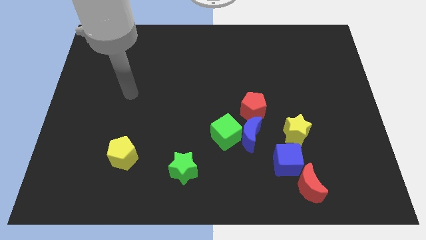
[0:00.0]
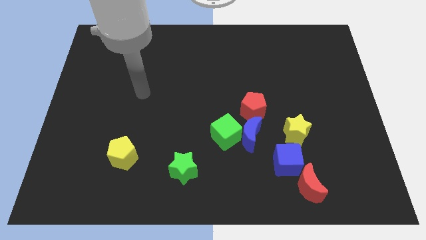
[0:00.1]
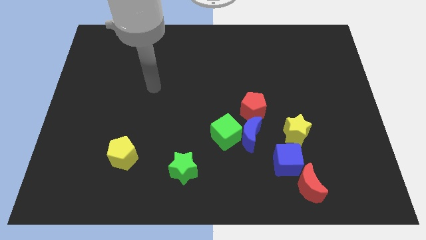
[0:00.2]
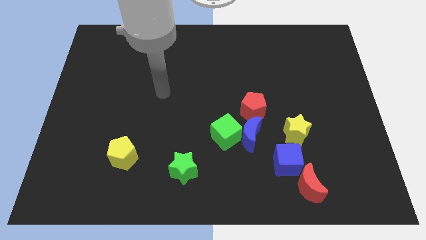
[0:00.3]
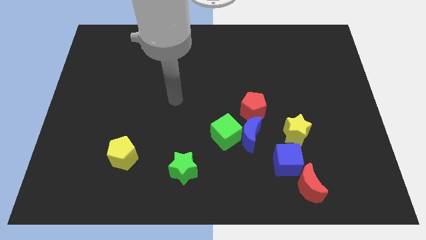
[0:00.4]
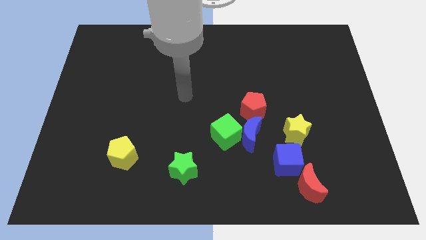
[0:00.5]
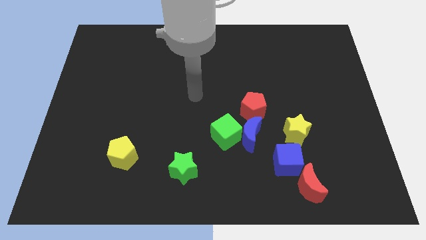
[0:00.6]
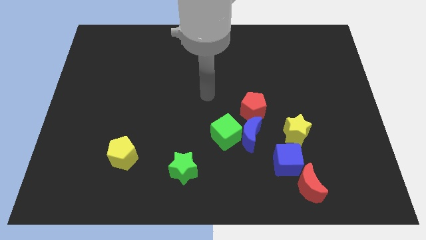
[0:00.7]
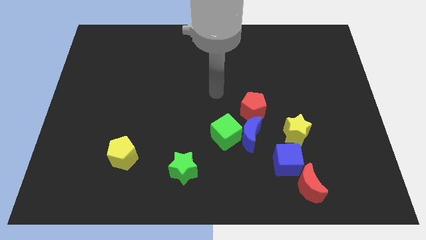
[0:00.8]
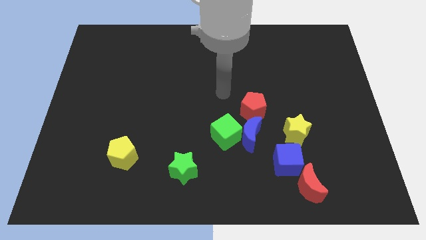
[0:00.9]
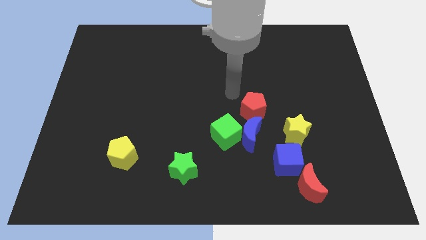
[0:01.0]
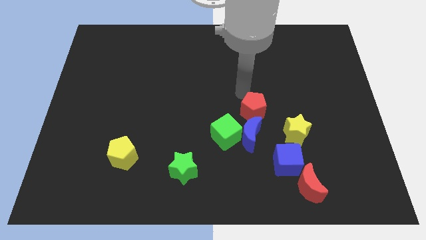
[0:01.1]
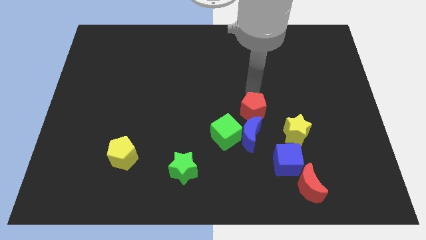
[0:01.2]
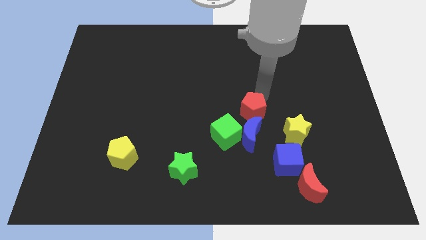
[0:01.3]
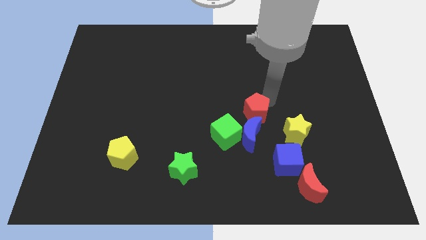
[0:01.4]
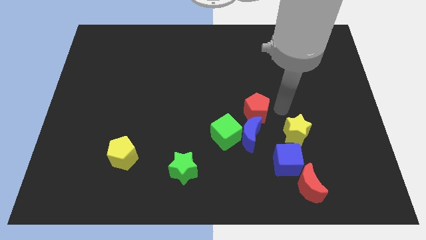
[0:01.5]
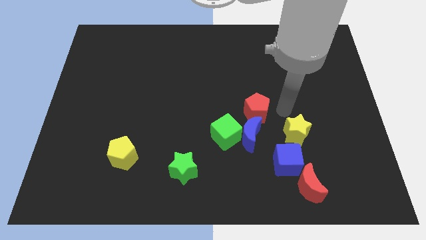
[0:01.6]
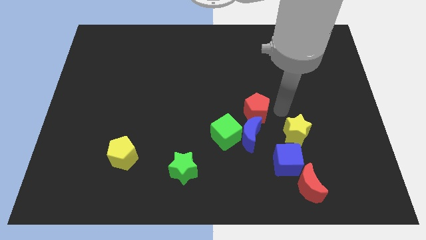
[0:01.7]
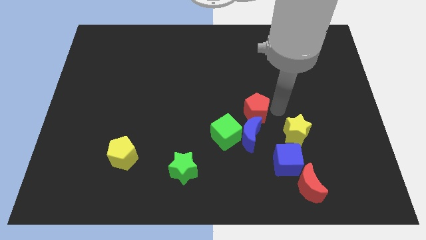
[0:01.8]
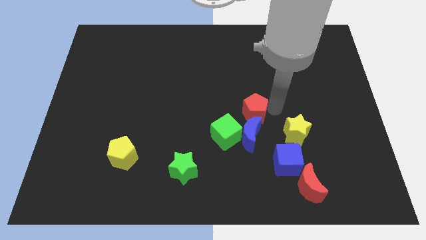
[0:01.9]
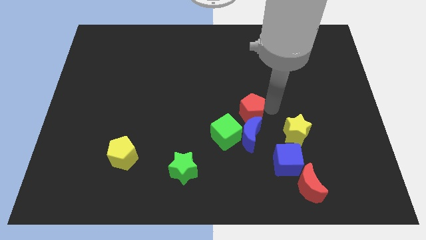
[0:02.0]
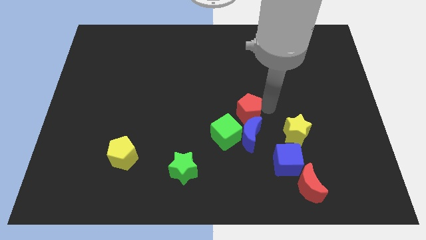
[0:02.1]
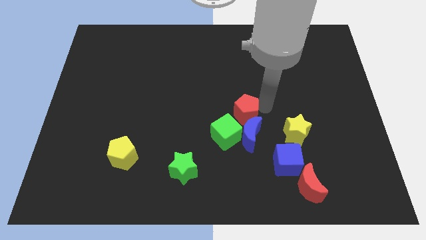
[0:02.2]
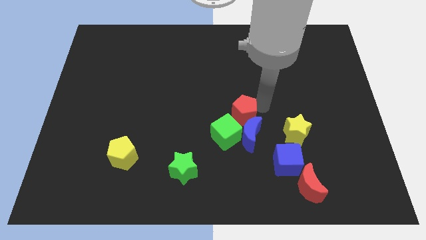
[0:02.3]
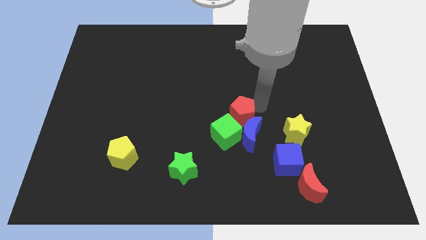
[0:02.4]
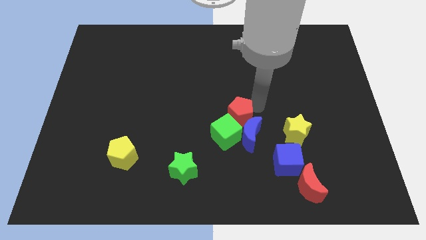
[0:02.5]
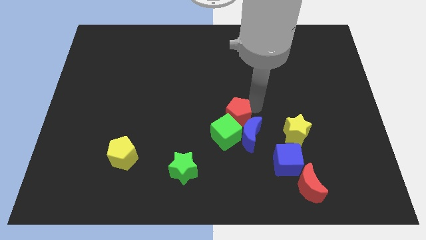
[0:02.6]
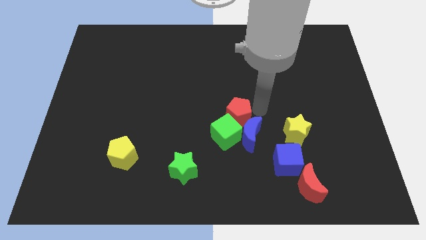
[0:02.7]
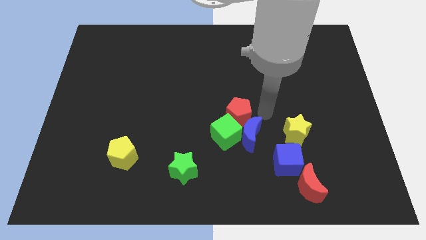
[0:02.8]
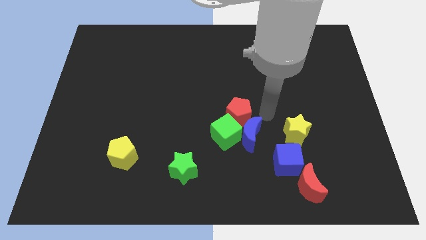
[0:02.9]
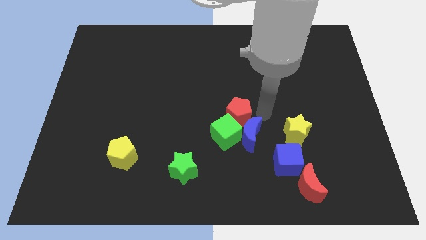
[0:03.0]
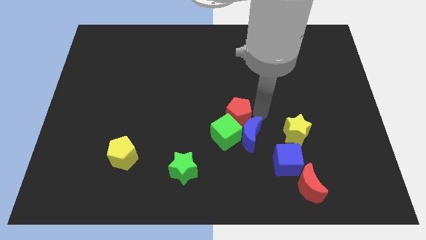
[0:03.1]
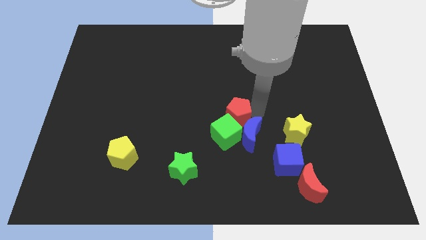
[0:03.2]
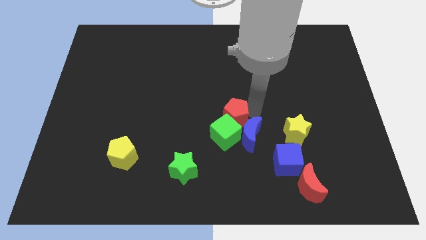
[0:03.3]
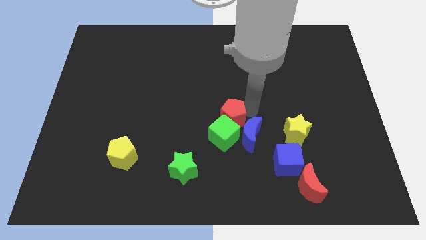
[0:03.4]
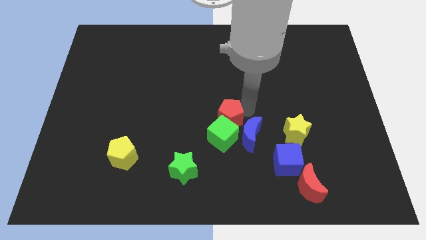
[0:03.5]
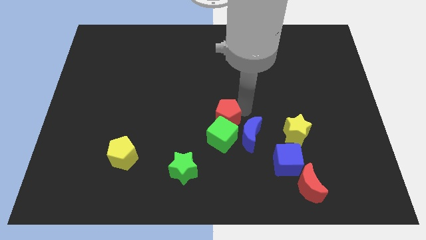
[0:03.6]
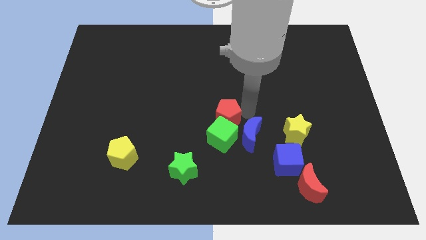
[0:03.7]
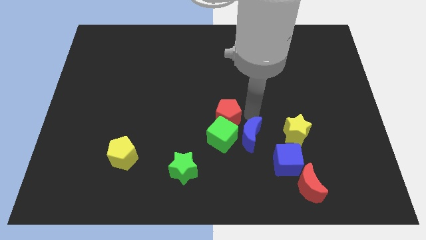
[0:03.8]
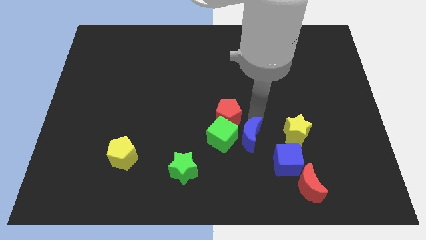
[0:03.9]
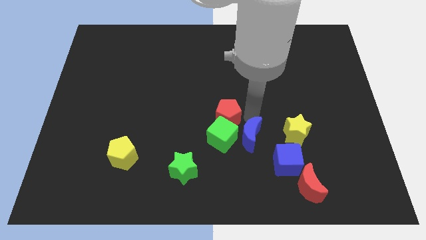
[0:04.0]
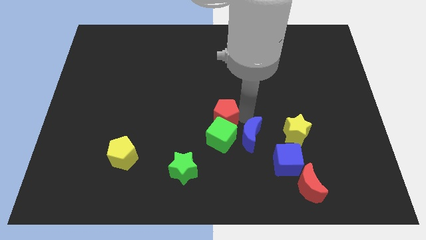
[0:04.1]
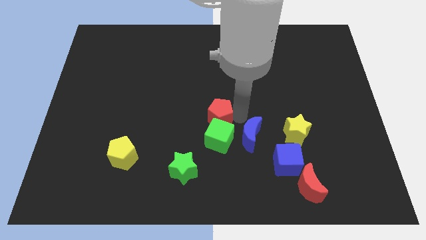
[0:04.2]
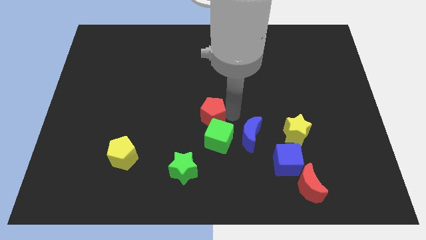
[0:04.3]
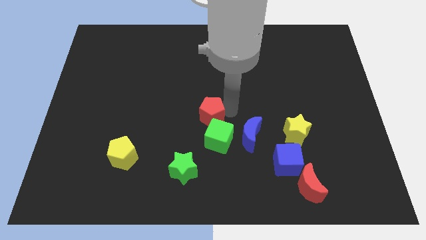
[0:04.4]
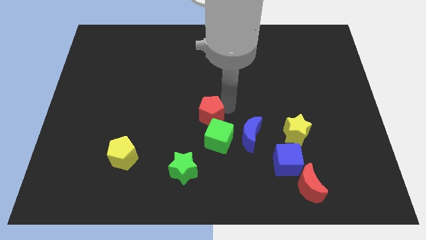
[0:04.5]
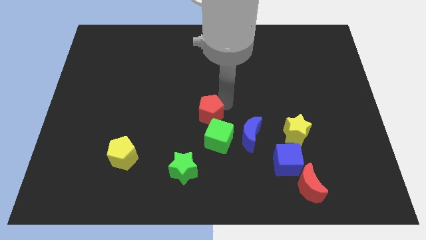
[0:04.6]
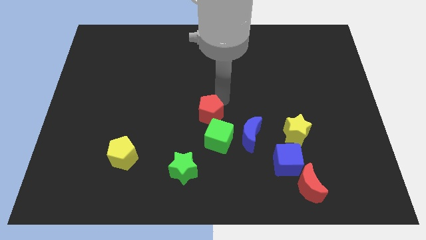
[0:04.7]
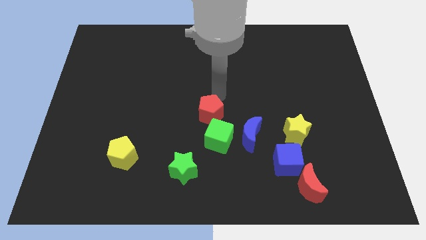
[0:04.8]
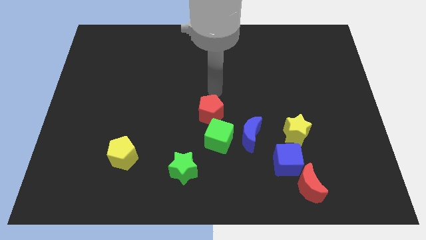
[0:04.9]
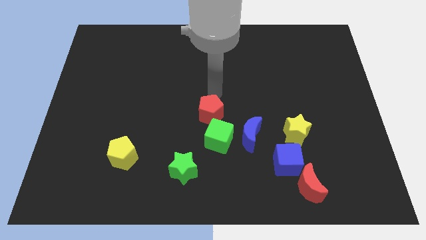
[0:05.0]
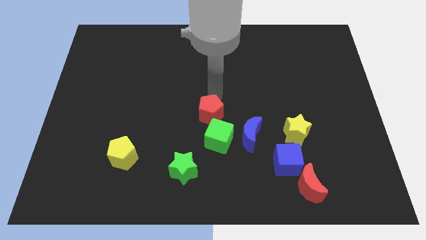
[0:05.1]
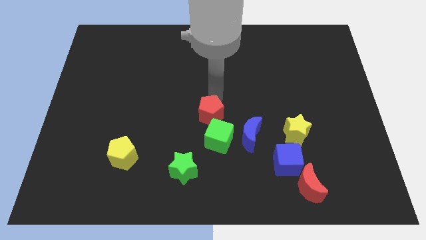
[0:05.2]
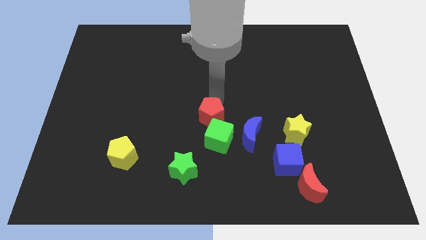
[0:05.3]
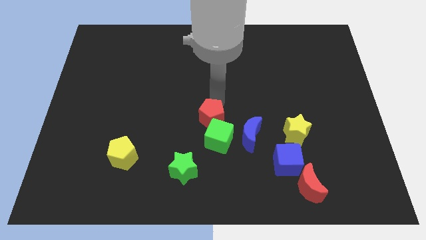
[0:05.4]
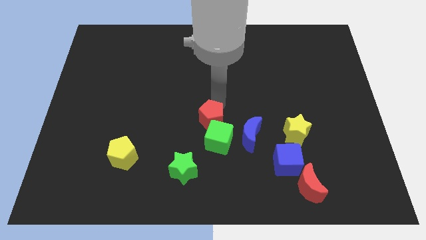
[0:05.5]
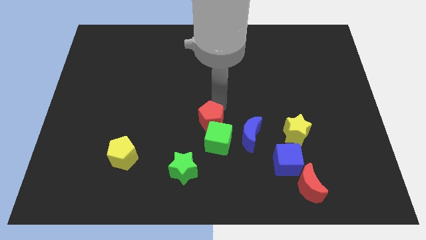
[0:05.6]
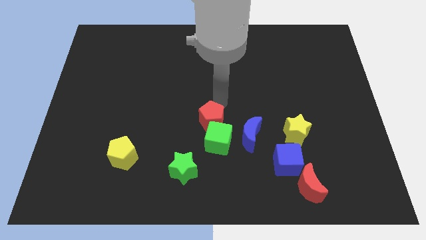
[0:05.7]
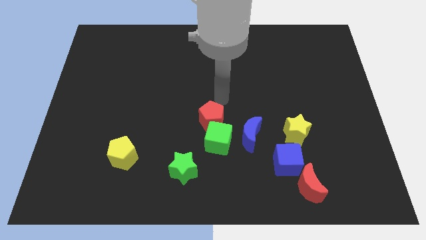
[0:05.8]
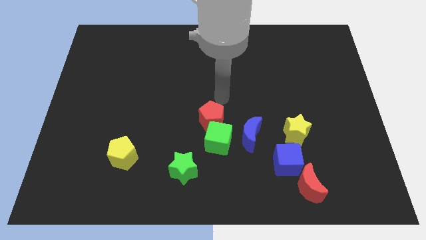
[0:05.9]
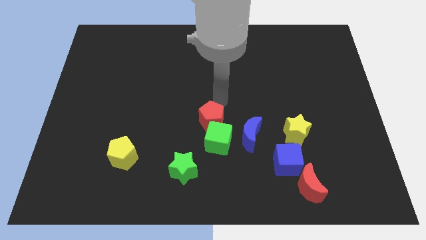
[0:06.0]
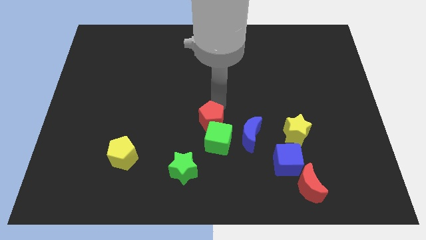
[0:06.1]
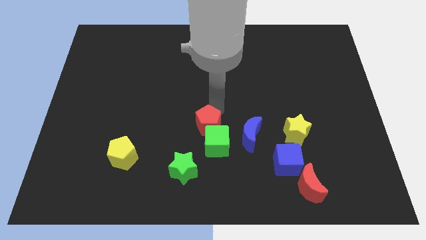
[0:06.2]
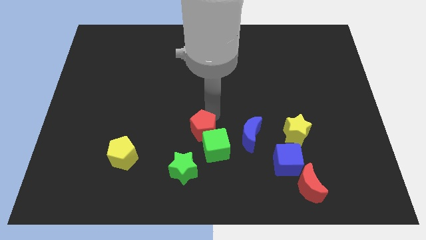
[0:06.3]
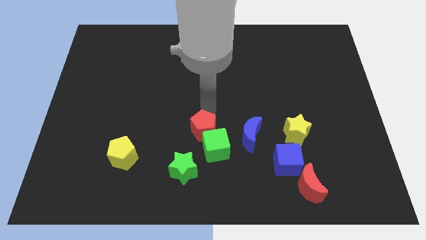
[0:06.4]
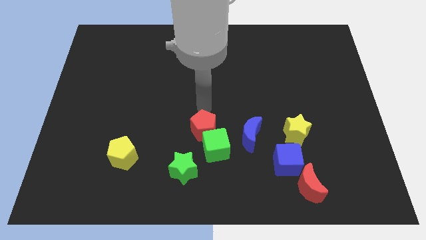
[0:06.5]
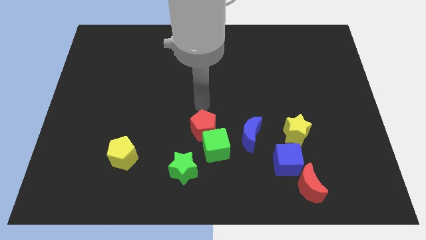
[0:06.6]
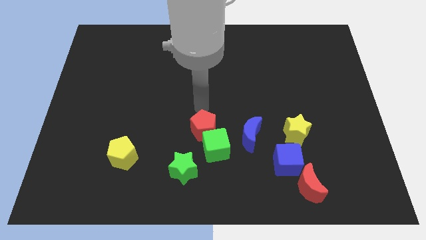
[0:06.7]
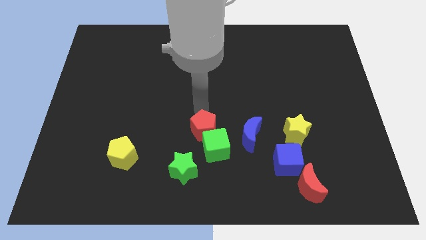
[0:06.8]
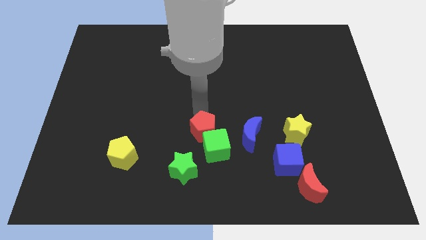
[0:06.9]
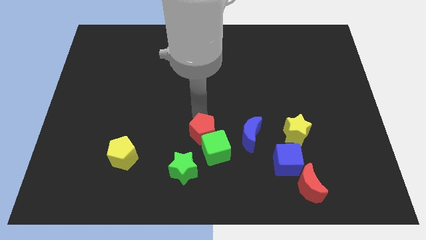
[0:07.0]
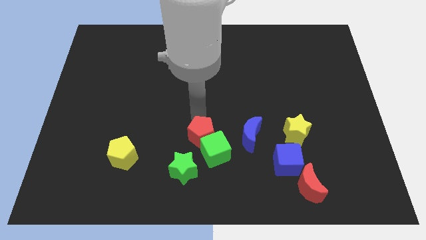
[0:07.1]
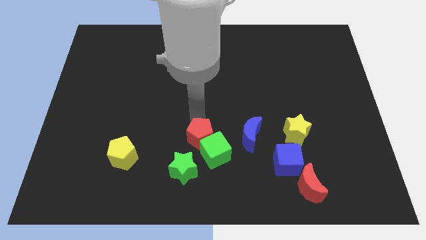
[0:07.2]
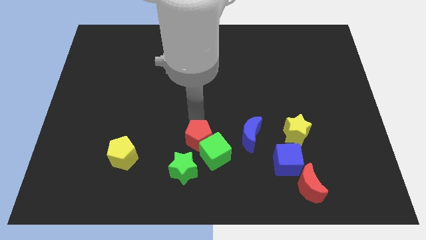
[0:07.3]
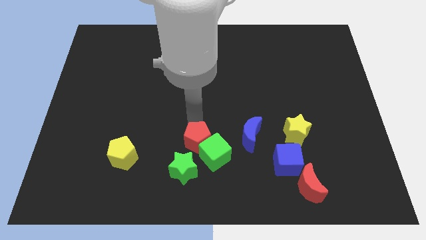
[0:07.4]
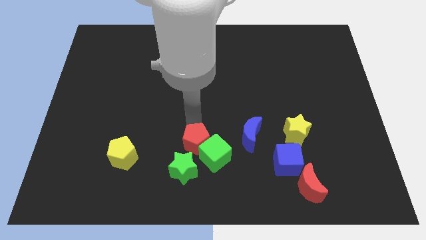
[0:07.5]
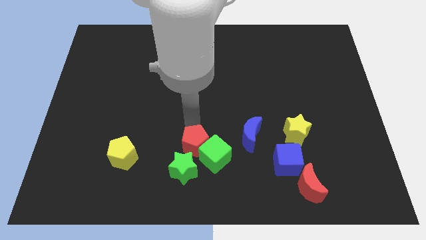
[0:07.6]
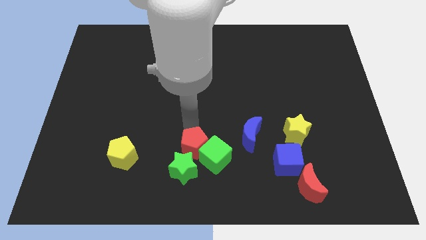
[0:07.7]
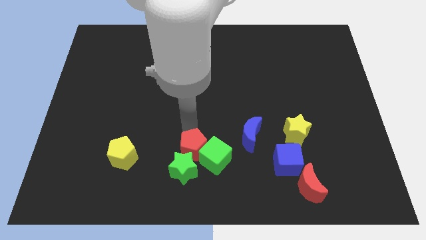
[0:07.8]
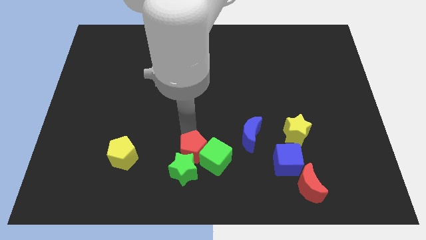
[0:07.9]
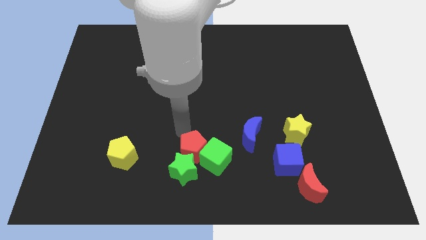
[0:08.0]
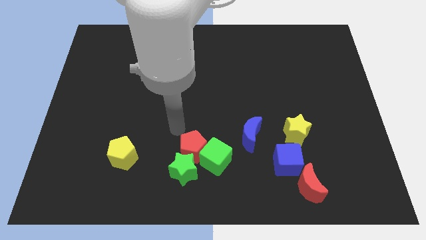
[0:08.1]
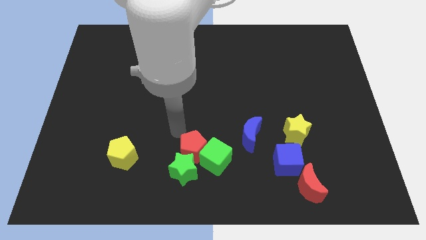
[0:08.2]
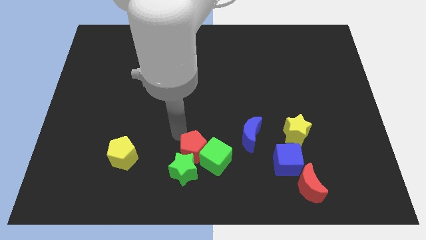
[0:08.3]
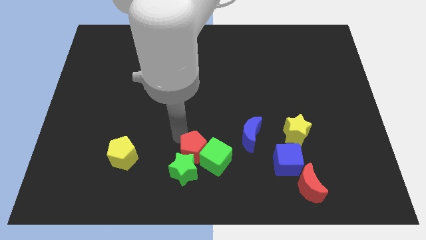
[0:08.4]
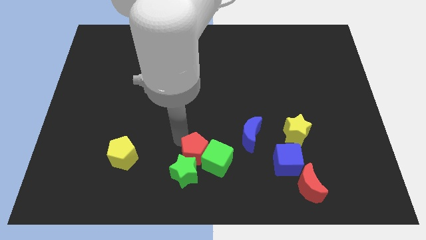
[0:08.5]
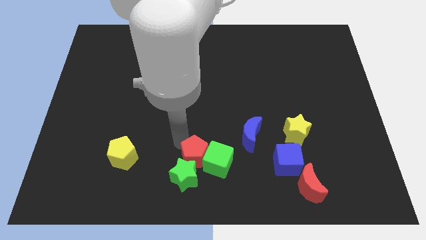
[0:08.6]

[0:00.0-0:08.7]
put the red pentagon to the bottom
